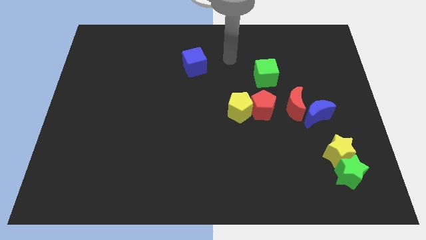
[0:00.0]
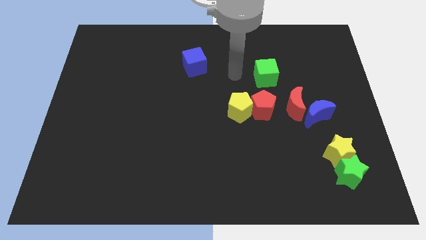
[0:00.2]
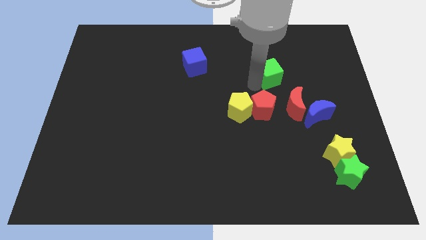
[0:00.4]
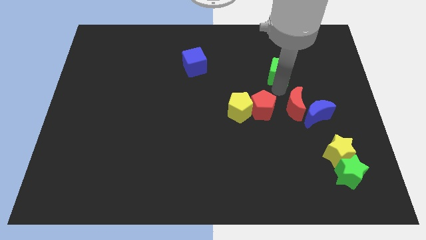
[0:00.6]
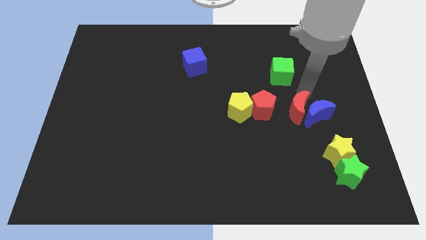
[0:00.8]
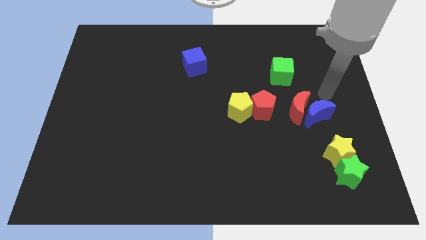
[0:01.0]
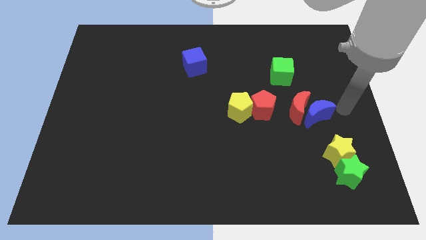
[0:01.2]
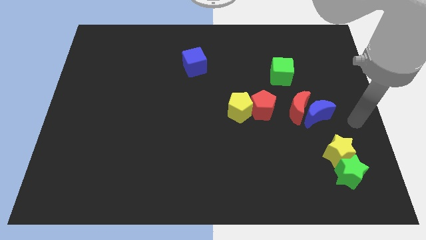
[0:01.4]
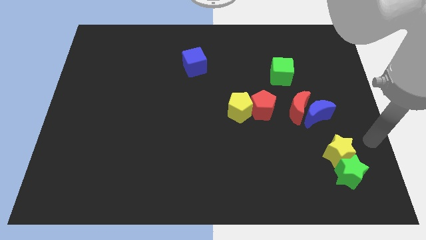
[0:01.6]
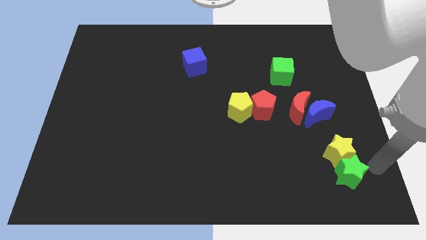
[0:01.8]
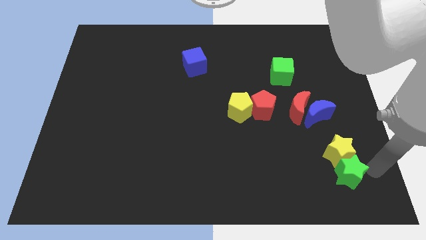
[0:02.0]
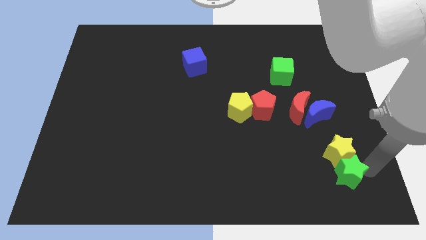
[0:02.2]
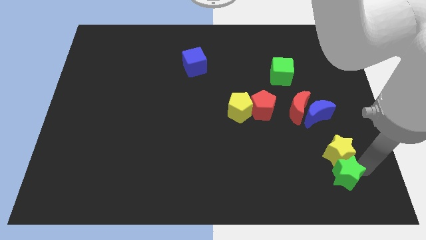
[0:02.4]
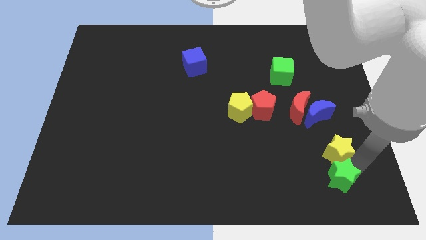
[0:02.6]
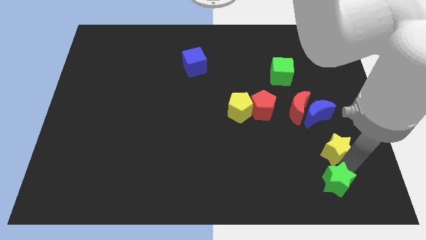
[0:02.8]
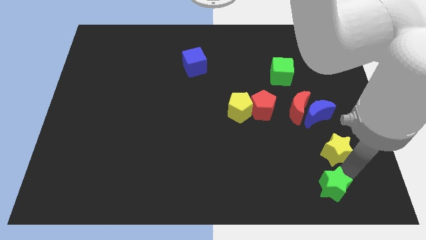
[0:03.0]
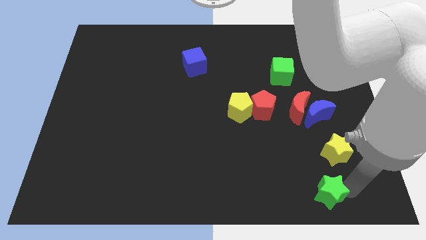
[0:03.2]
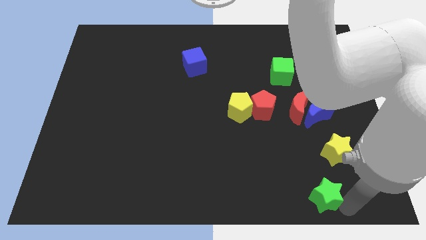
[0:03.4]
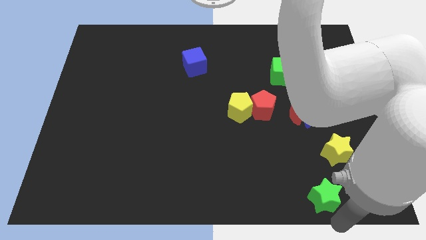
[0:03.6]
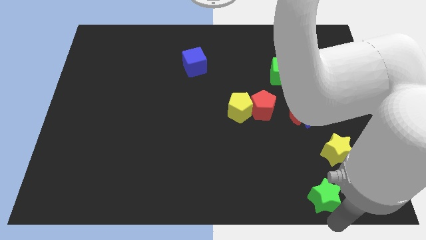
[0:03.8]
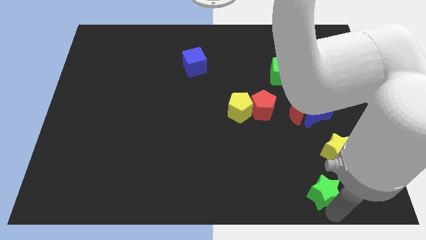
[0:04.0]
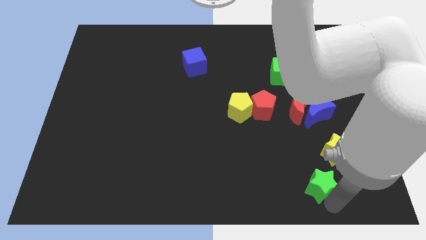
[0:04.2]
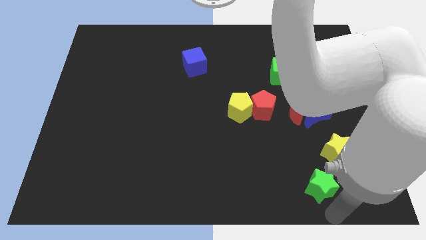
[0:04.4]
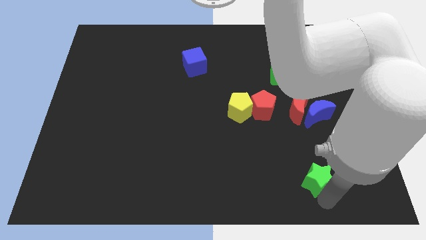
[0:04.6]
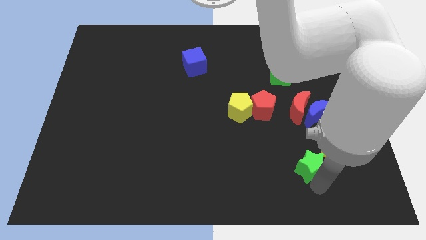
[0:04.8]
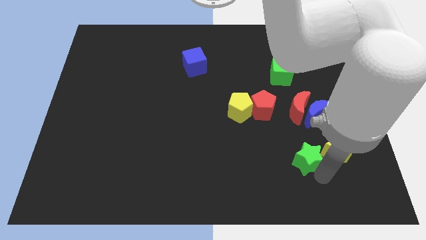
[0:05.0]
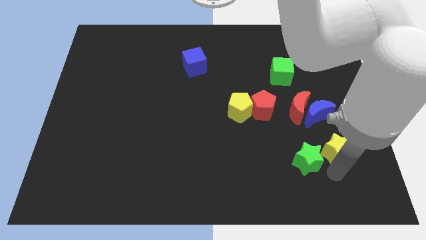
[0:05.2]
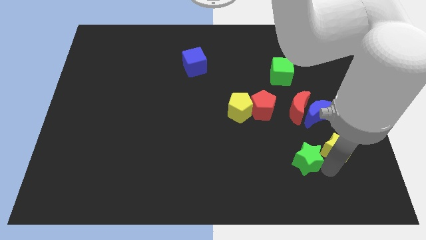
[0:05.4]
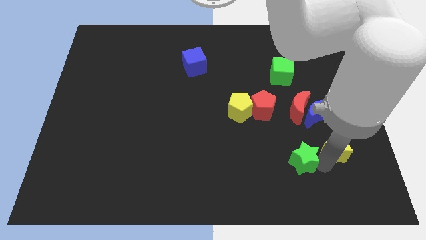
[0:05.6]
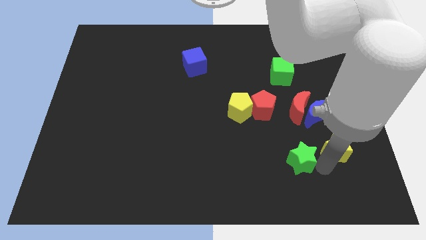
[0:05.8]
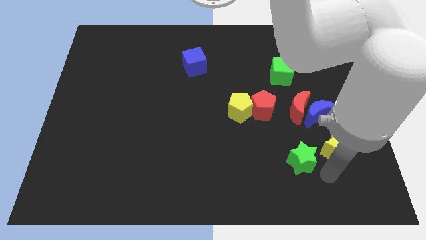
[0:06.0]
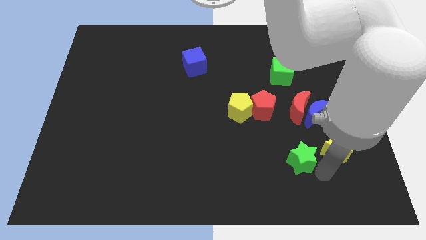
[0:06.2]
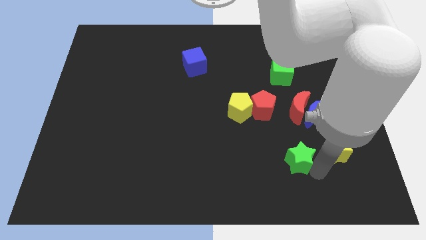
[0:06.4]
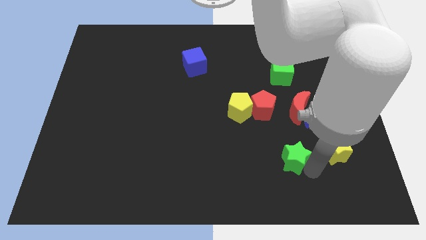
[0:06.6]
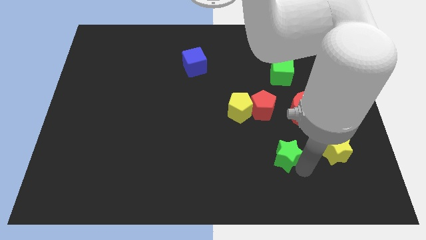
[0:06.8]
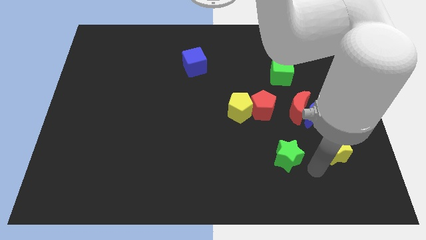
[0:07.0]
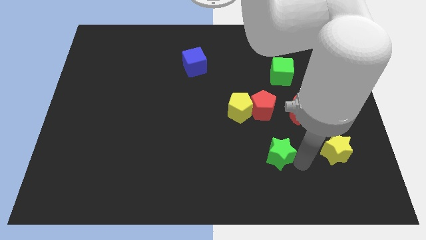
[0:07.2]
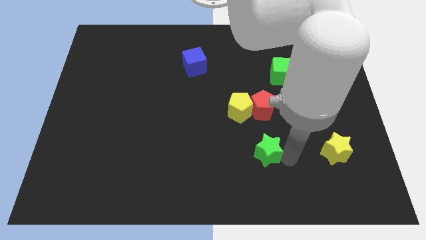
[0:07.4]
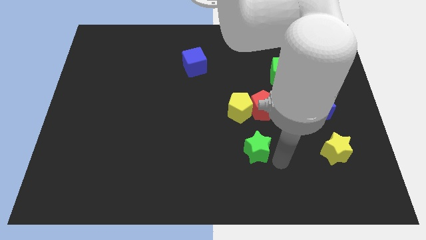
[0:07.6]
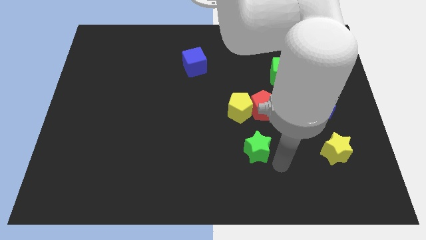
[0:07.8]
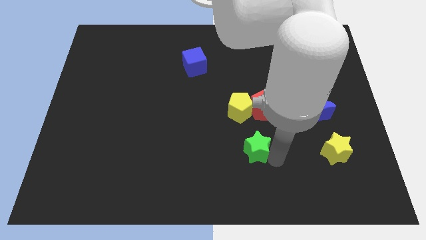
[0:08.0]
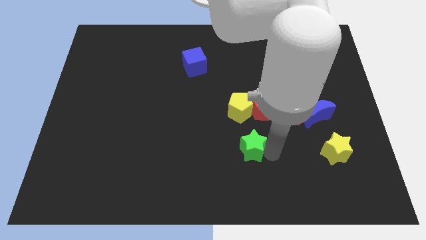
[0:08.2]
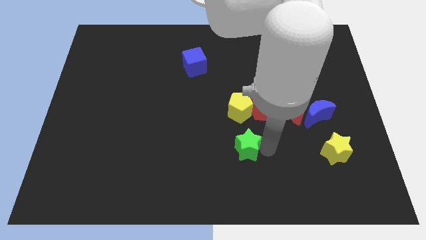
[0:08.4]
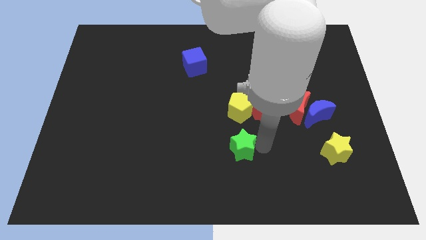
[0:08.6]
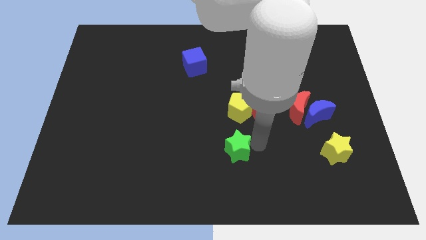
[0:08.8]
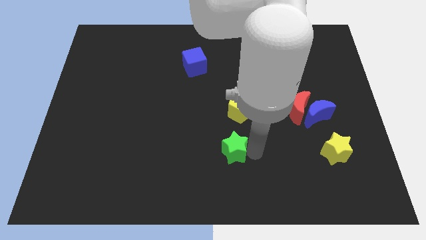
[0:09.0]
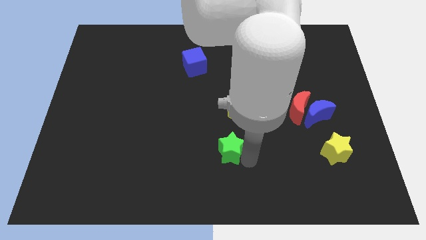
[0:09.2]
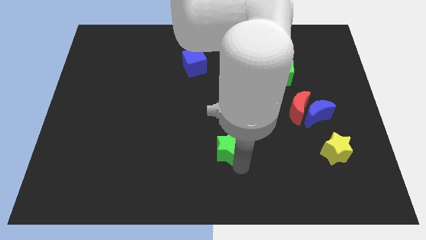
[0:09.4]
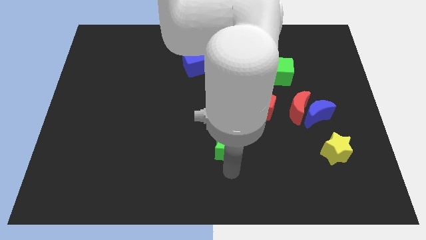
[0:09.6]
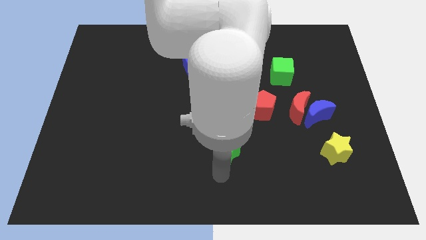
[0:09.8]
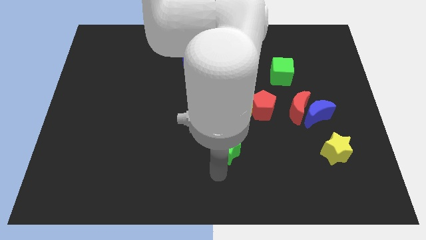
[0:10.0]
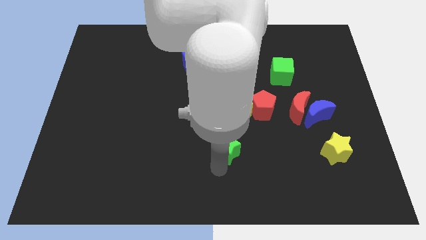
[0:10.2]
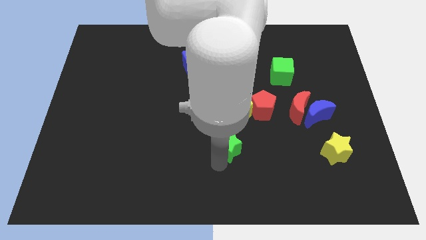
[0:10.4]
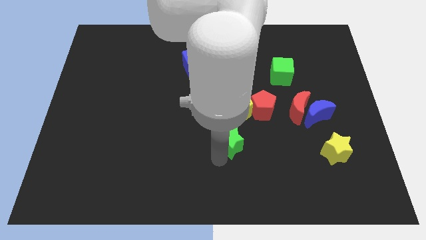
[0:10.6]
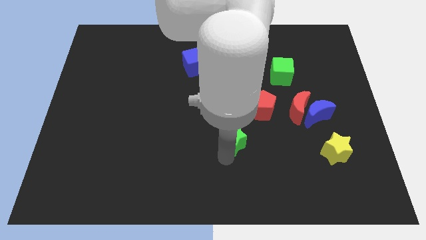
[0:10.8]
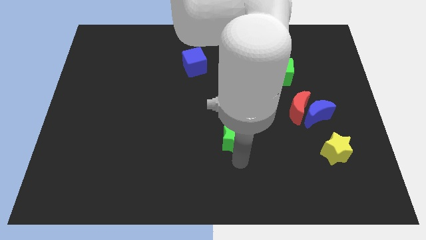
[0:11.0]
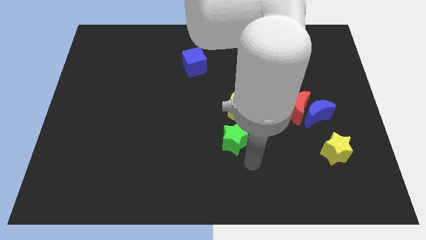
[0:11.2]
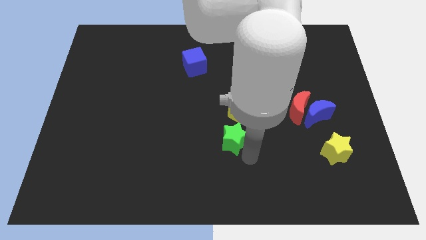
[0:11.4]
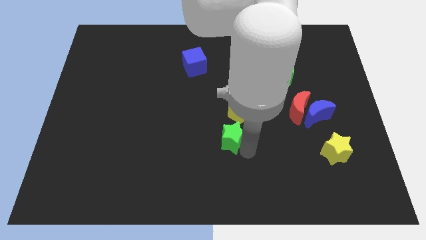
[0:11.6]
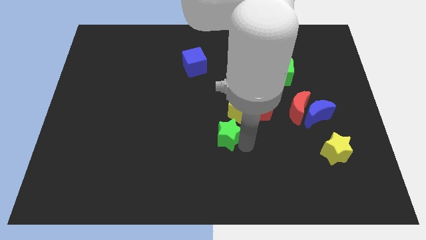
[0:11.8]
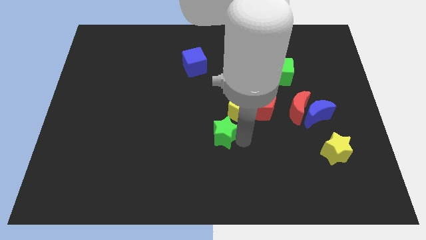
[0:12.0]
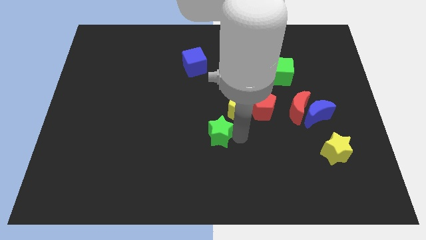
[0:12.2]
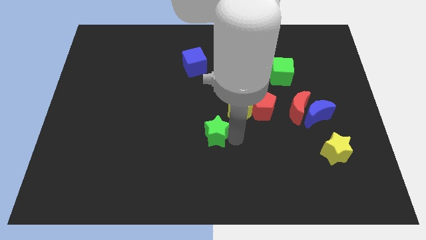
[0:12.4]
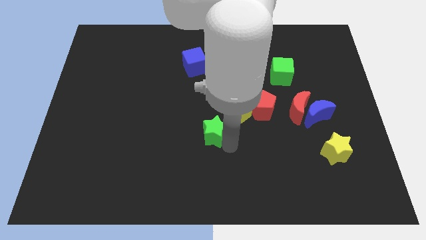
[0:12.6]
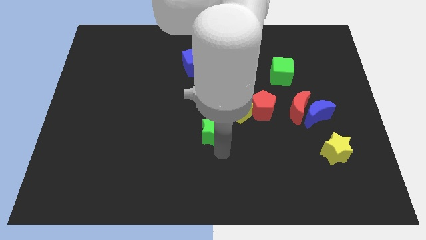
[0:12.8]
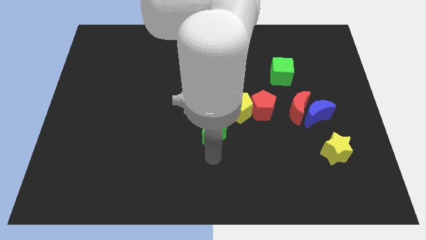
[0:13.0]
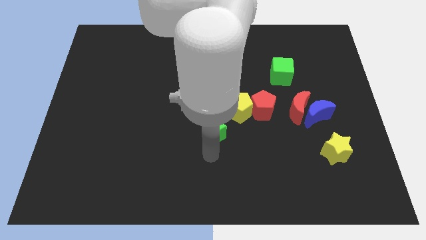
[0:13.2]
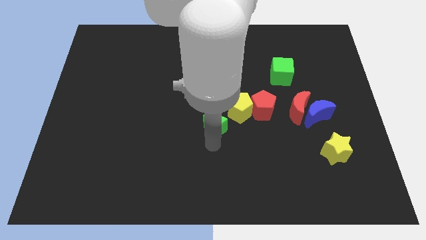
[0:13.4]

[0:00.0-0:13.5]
slide the green star diagonally upwards and to the left

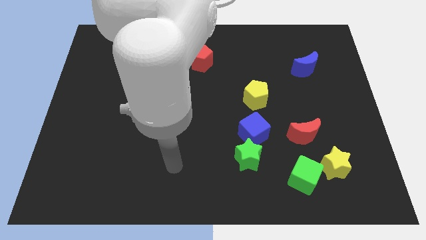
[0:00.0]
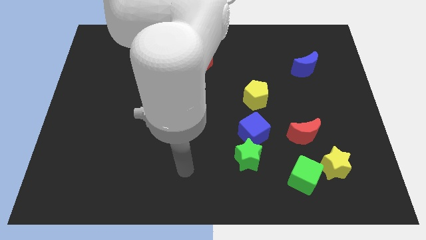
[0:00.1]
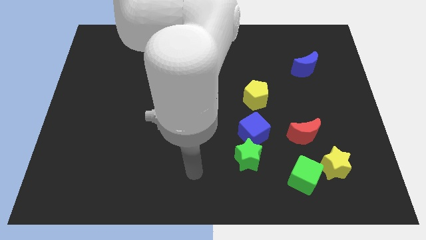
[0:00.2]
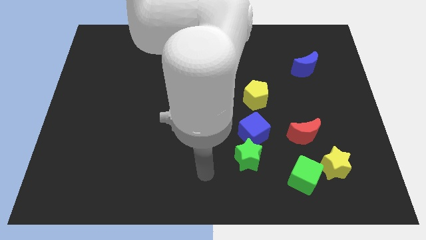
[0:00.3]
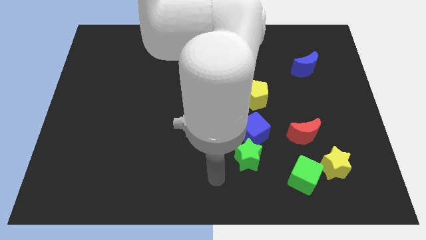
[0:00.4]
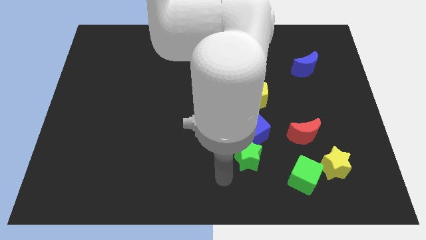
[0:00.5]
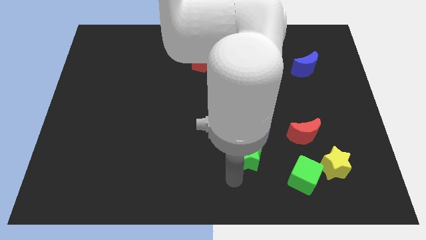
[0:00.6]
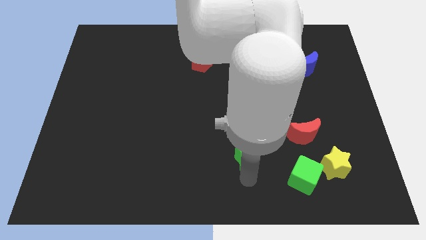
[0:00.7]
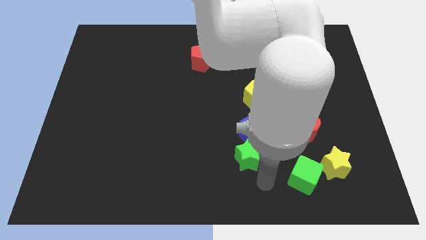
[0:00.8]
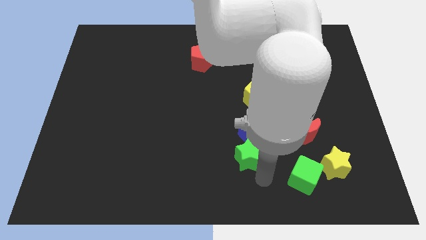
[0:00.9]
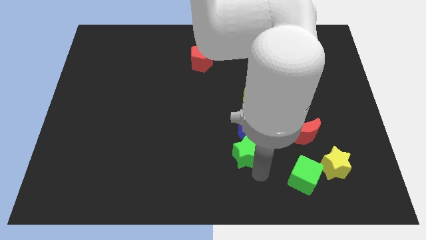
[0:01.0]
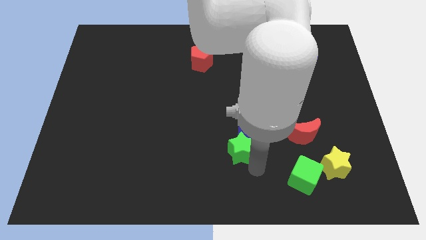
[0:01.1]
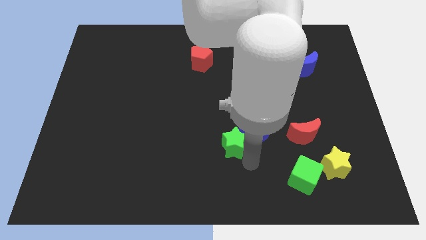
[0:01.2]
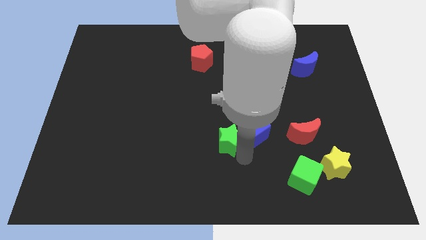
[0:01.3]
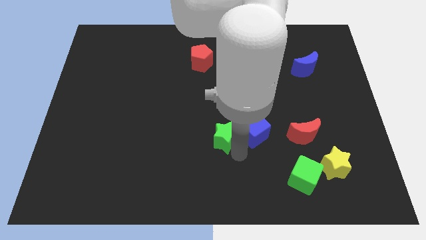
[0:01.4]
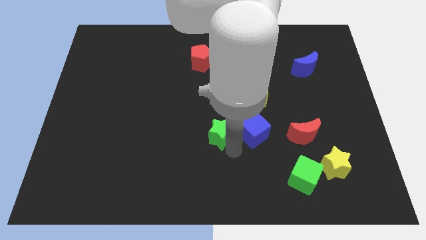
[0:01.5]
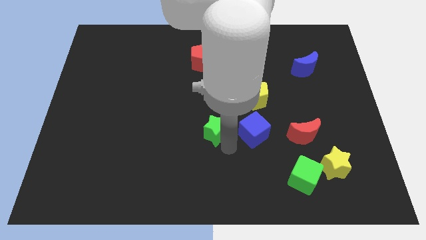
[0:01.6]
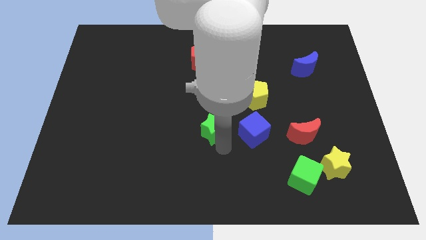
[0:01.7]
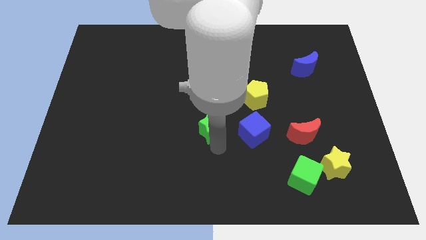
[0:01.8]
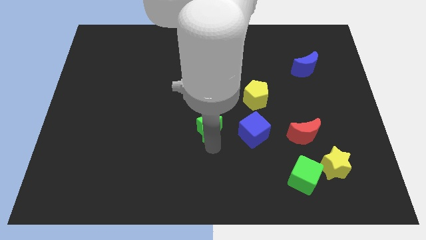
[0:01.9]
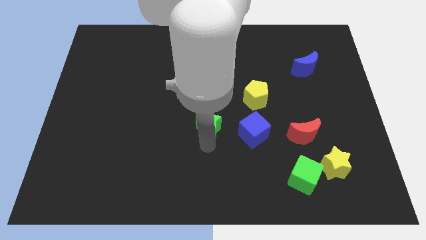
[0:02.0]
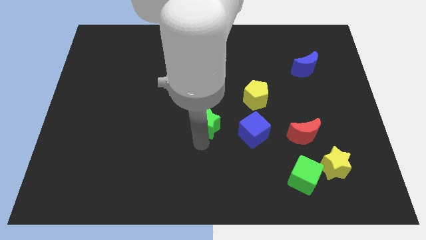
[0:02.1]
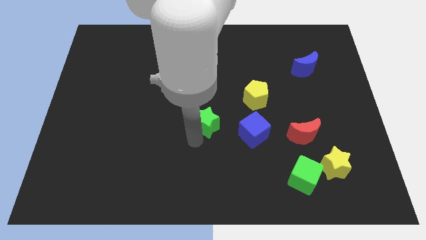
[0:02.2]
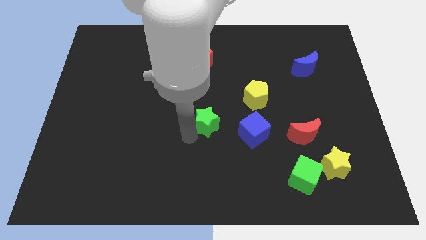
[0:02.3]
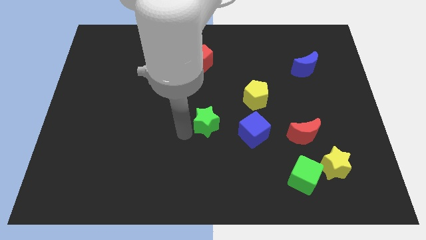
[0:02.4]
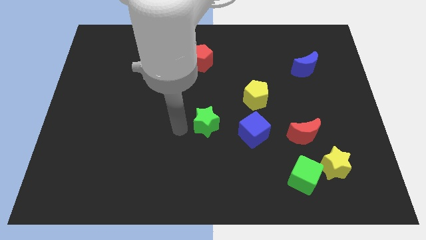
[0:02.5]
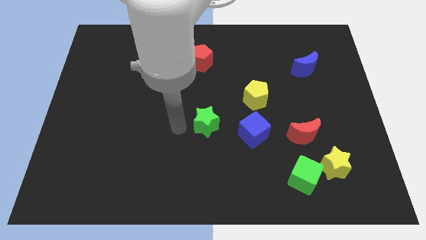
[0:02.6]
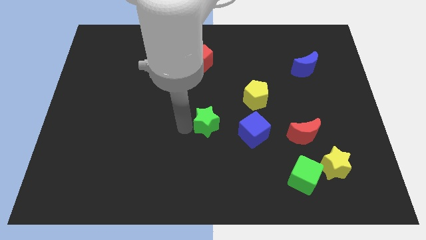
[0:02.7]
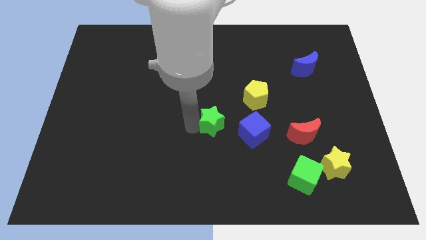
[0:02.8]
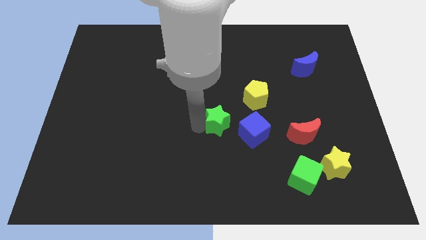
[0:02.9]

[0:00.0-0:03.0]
push the green star a bit upwards
